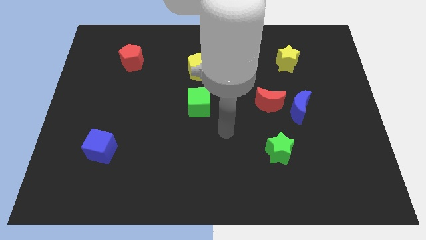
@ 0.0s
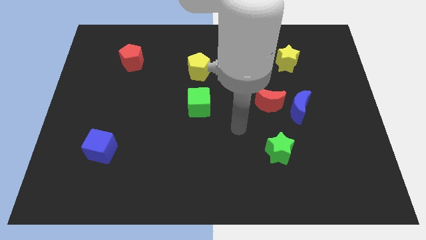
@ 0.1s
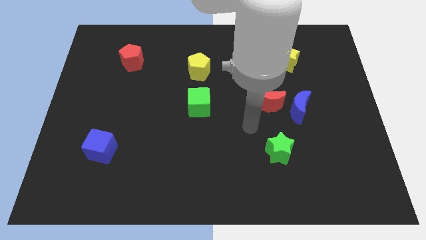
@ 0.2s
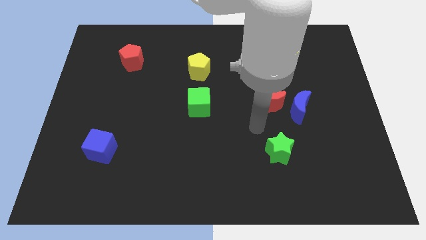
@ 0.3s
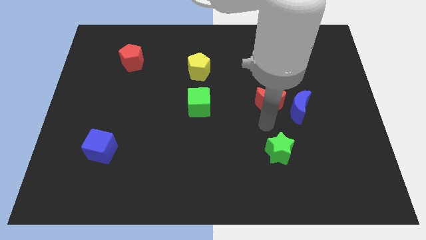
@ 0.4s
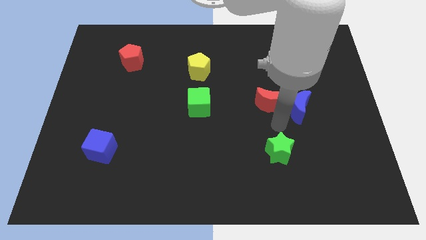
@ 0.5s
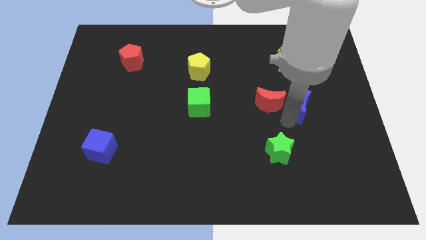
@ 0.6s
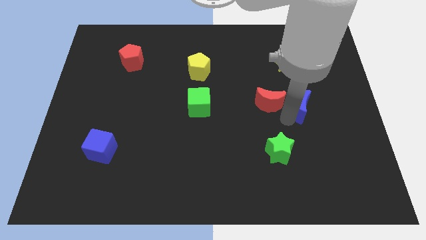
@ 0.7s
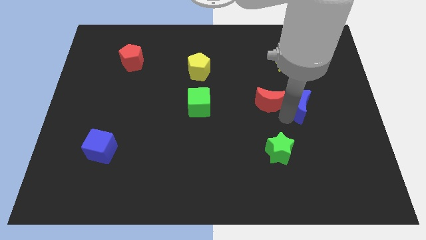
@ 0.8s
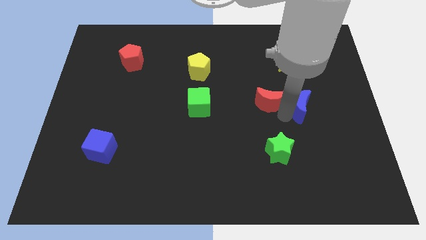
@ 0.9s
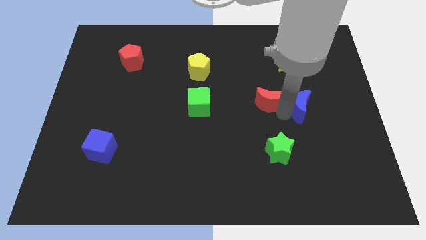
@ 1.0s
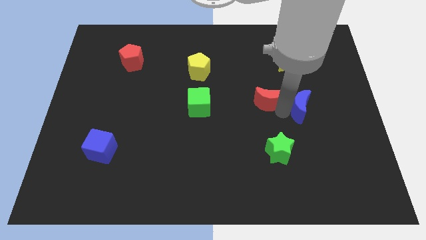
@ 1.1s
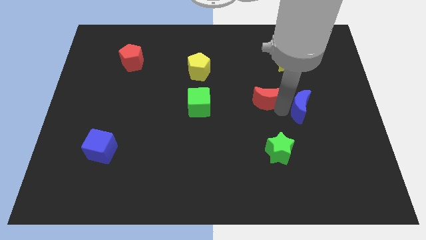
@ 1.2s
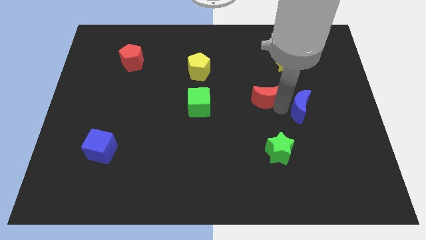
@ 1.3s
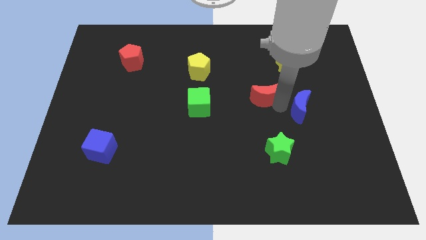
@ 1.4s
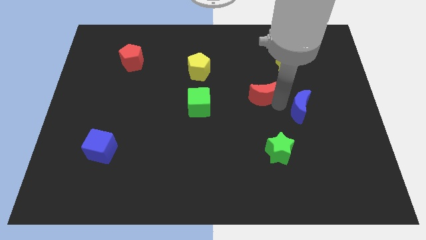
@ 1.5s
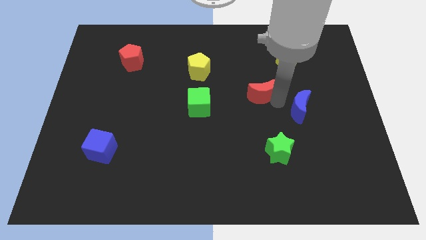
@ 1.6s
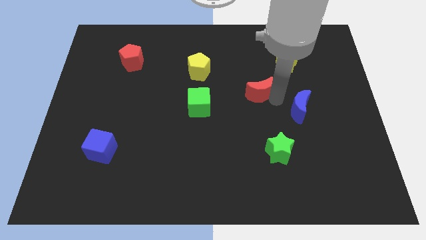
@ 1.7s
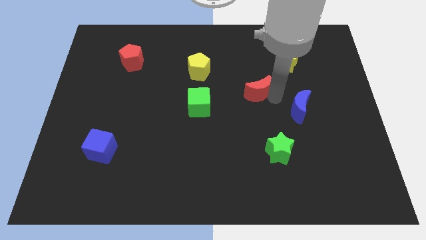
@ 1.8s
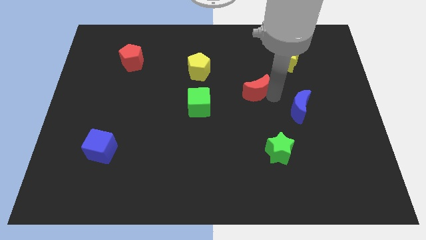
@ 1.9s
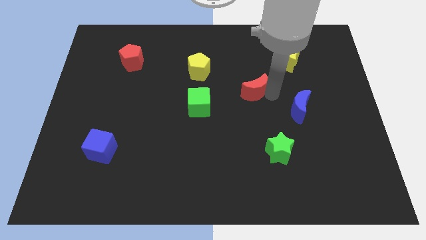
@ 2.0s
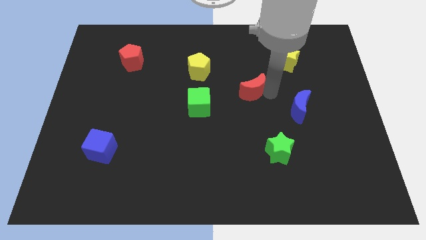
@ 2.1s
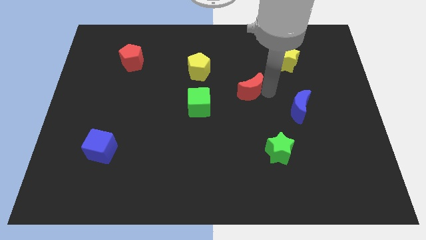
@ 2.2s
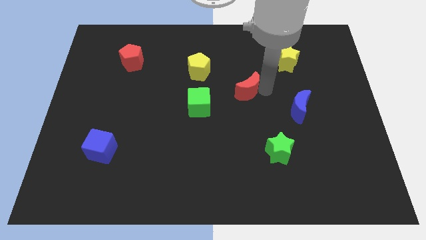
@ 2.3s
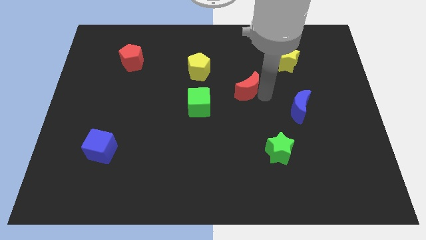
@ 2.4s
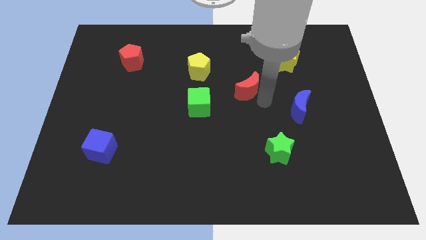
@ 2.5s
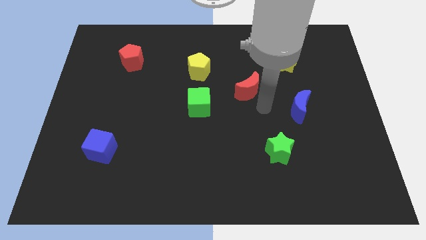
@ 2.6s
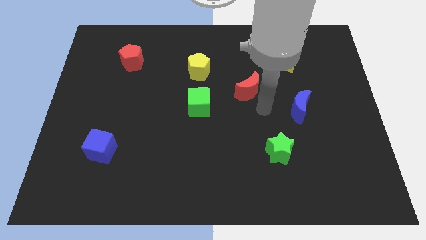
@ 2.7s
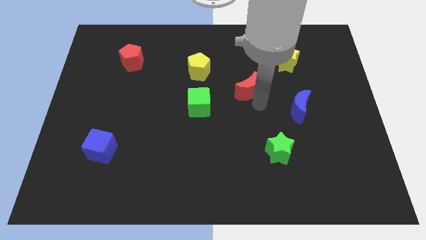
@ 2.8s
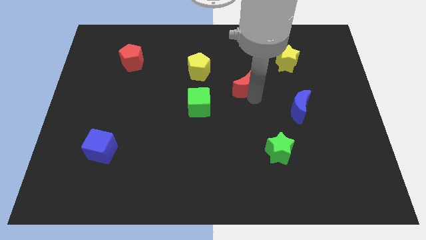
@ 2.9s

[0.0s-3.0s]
move the red moon diagonally up and to the left a bit

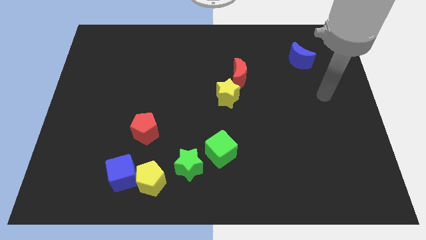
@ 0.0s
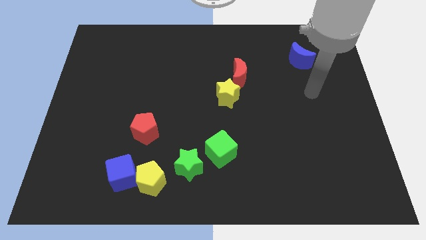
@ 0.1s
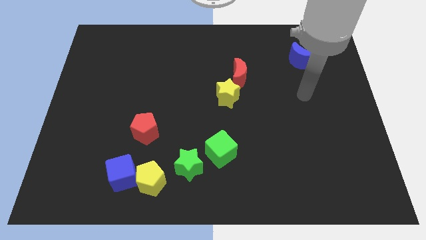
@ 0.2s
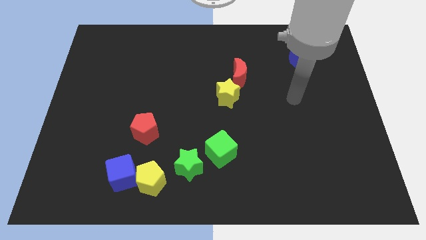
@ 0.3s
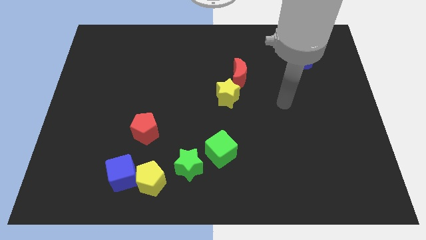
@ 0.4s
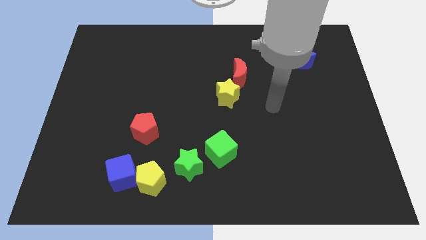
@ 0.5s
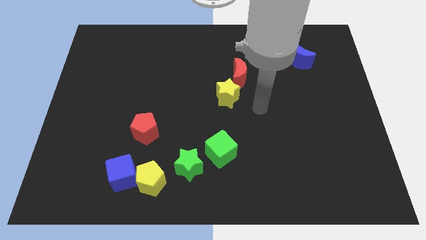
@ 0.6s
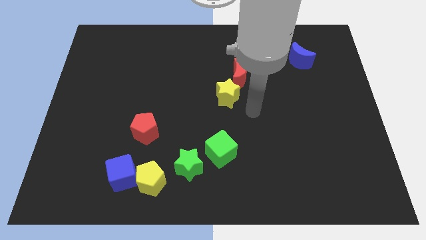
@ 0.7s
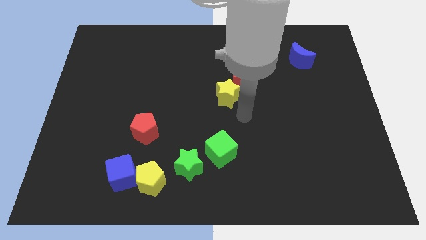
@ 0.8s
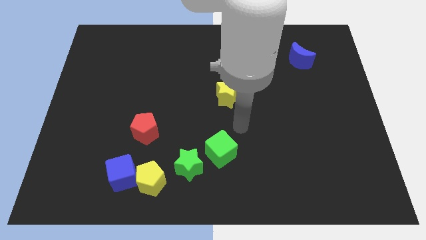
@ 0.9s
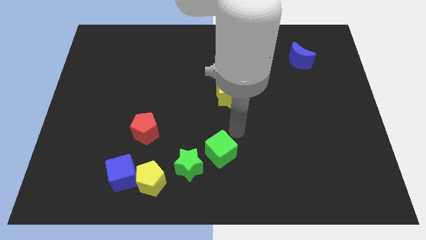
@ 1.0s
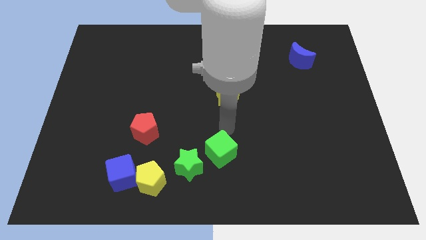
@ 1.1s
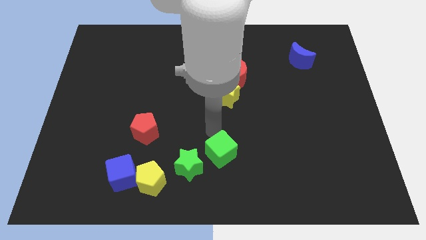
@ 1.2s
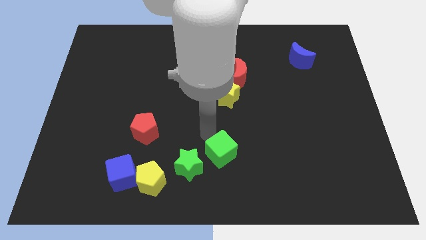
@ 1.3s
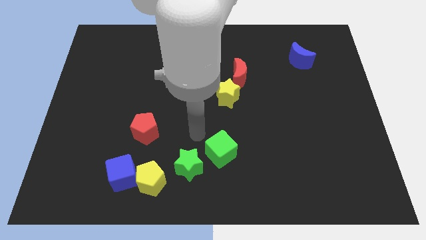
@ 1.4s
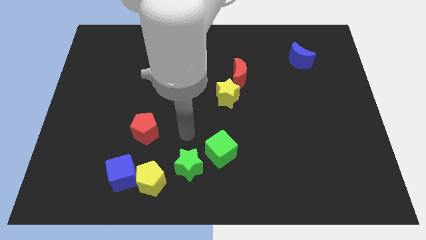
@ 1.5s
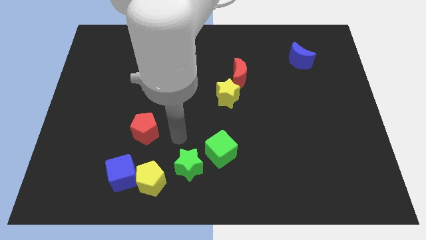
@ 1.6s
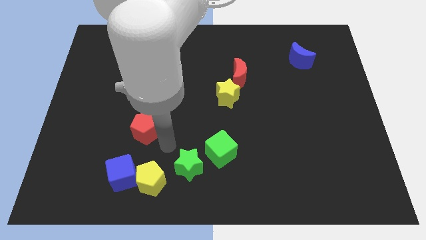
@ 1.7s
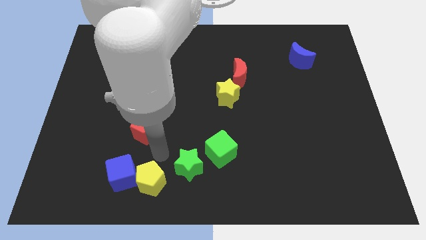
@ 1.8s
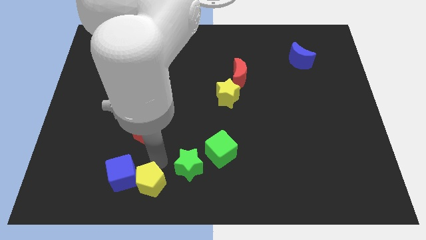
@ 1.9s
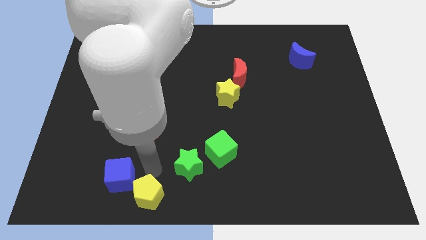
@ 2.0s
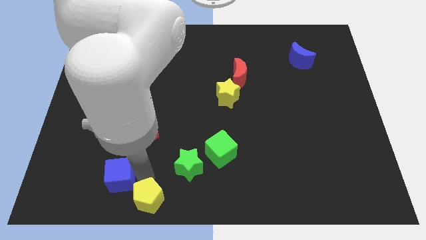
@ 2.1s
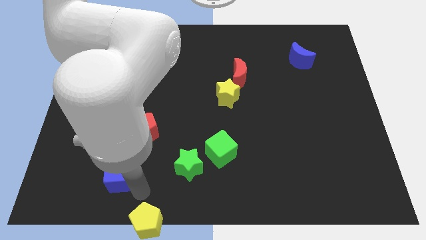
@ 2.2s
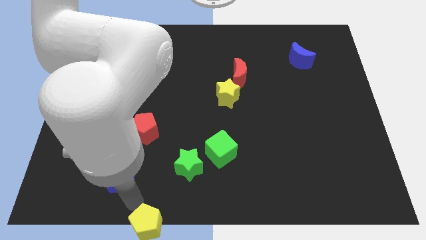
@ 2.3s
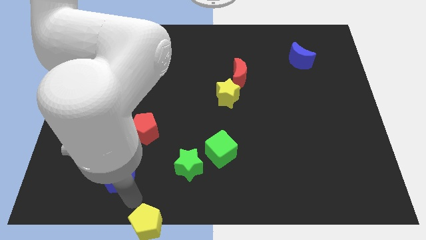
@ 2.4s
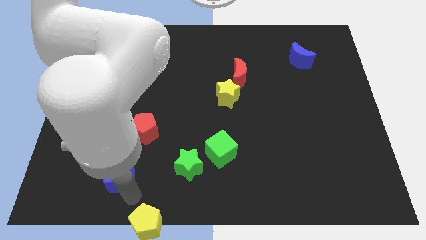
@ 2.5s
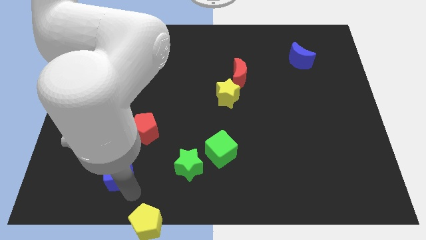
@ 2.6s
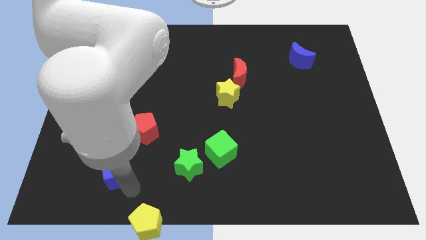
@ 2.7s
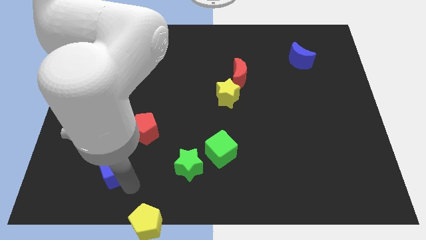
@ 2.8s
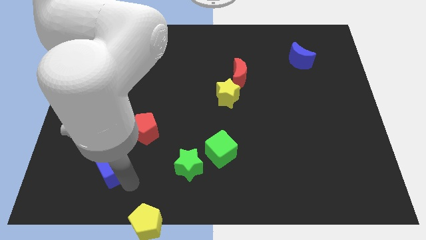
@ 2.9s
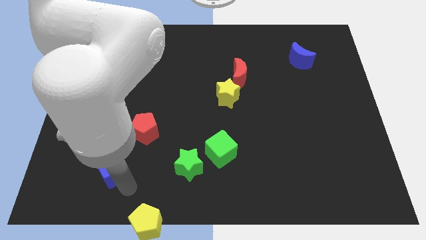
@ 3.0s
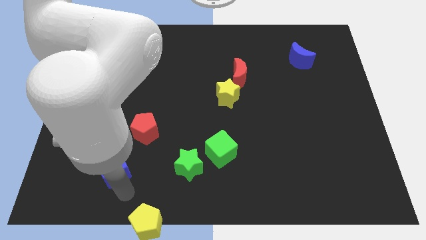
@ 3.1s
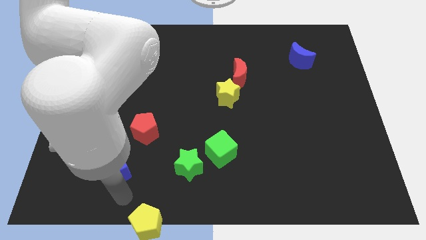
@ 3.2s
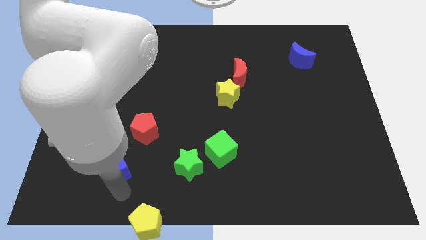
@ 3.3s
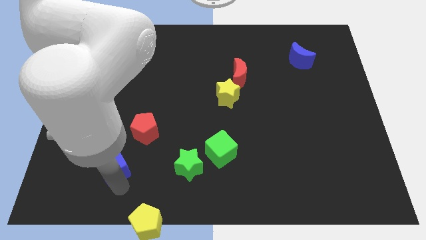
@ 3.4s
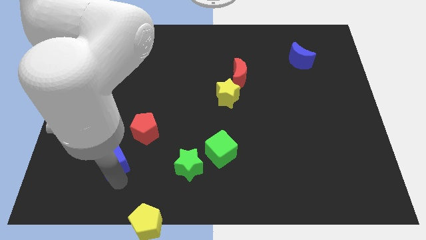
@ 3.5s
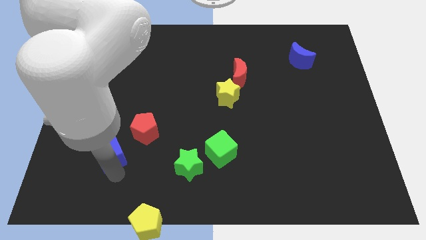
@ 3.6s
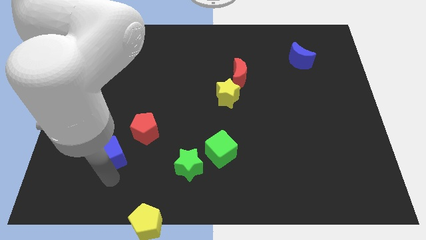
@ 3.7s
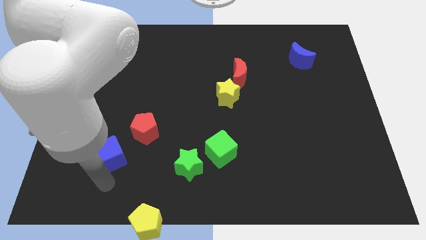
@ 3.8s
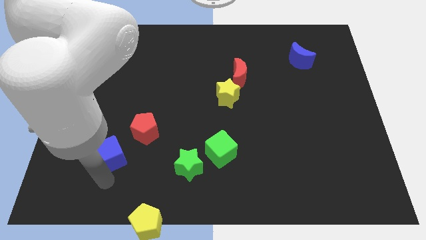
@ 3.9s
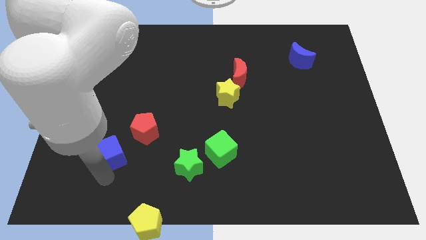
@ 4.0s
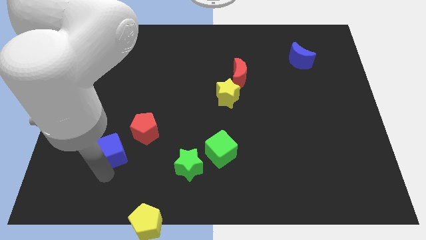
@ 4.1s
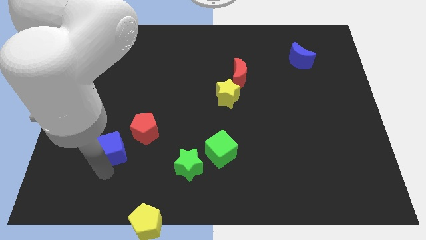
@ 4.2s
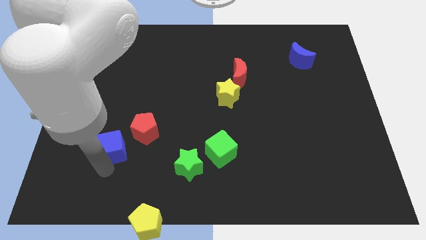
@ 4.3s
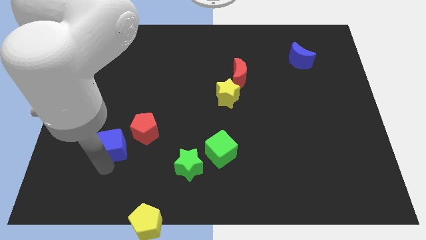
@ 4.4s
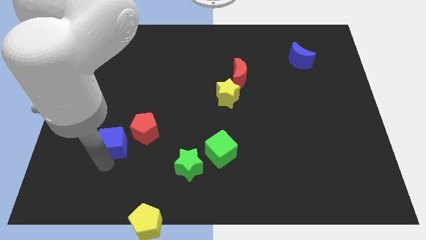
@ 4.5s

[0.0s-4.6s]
move the blue cube up somewhat

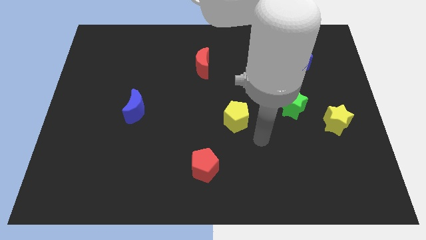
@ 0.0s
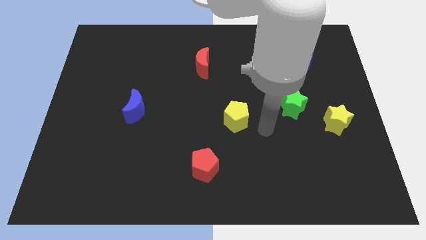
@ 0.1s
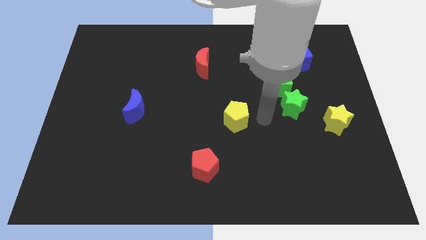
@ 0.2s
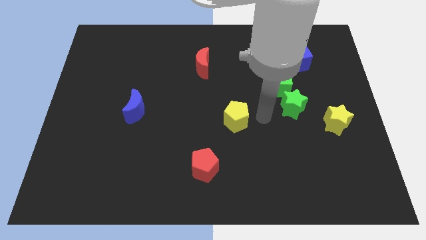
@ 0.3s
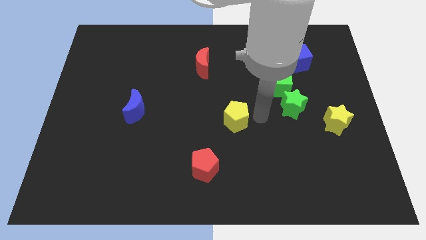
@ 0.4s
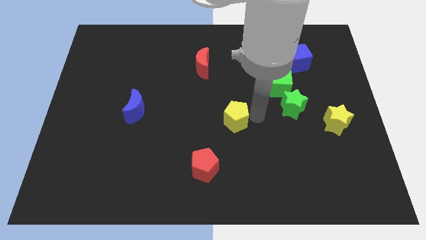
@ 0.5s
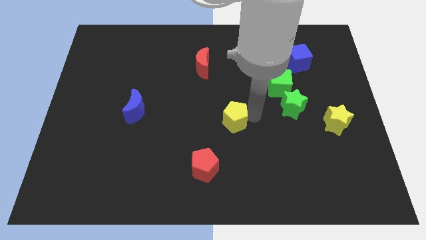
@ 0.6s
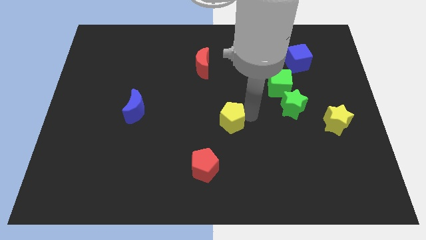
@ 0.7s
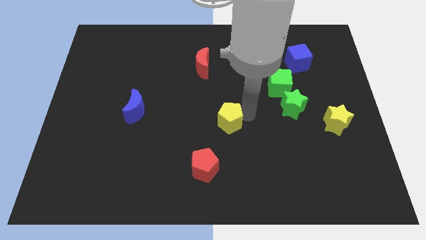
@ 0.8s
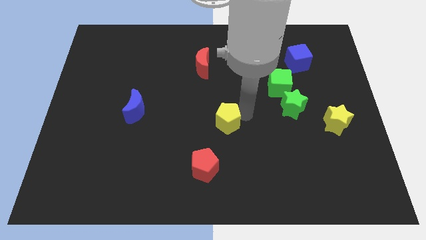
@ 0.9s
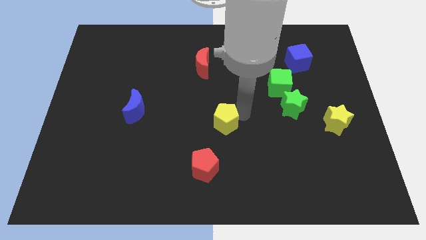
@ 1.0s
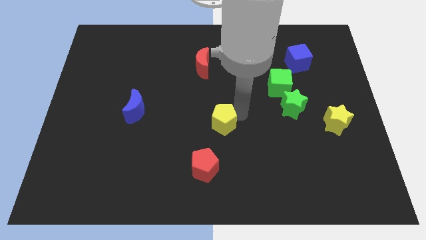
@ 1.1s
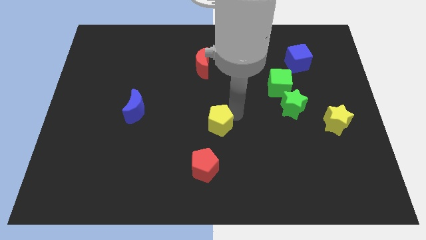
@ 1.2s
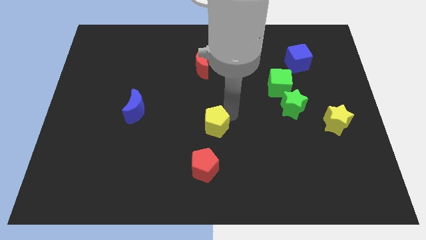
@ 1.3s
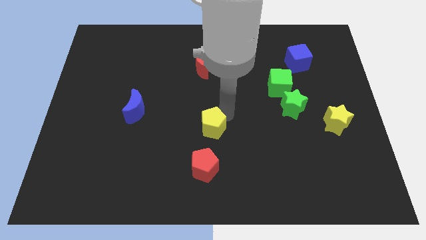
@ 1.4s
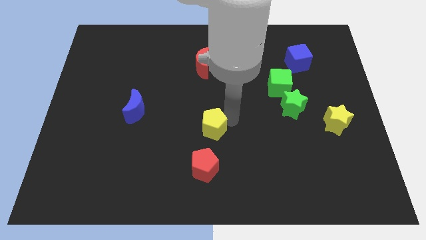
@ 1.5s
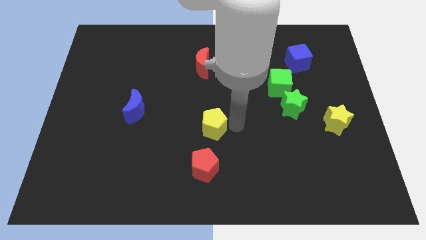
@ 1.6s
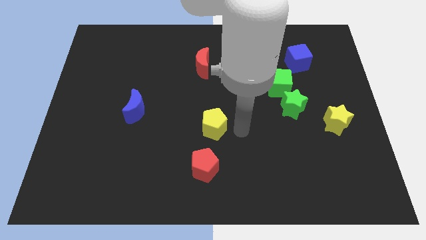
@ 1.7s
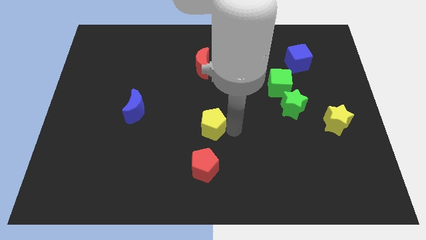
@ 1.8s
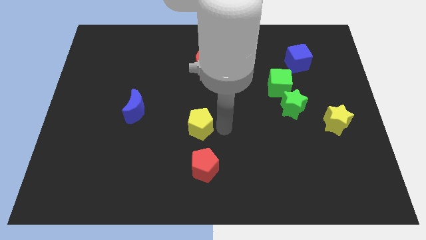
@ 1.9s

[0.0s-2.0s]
slightly move the yellow pentagon left
